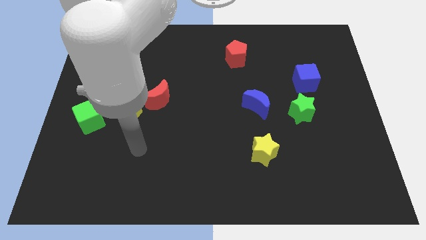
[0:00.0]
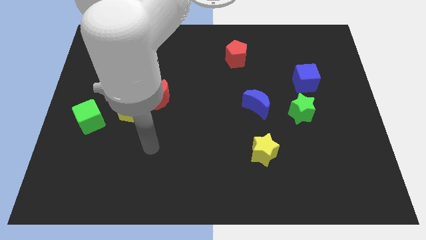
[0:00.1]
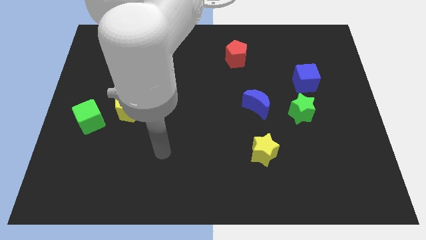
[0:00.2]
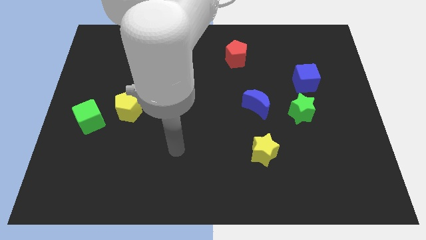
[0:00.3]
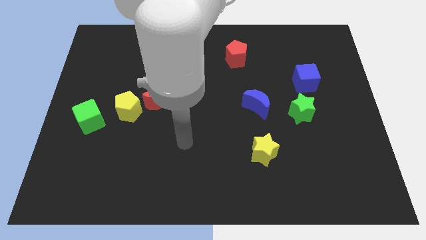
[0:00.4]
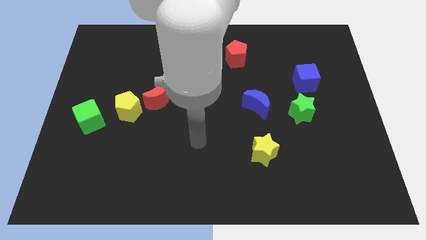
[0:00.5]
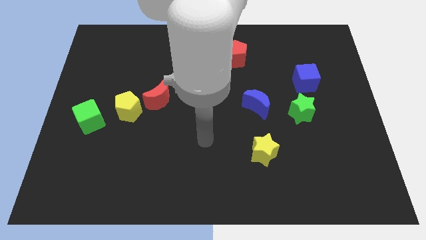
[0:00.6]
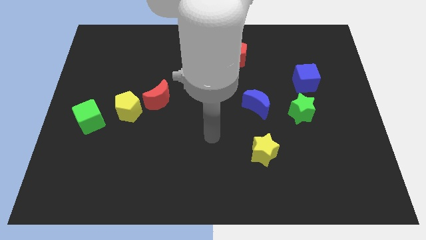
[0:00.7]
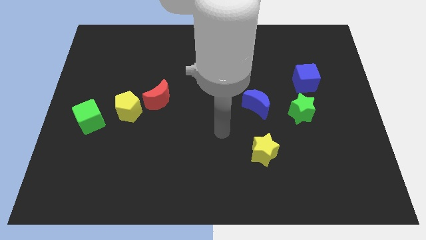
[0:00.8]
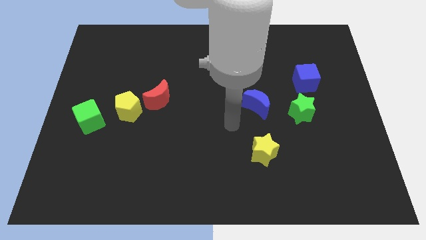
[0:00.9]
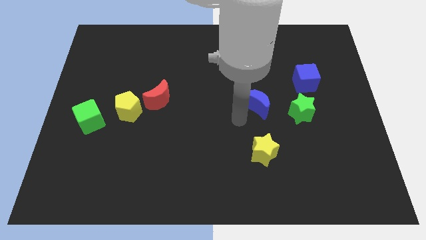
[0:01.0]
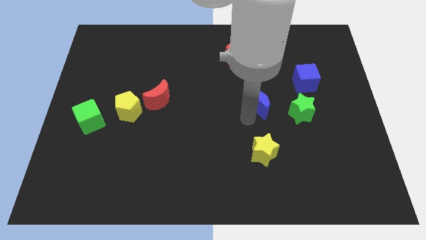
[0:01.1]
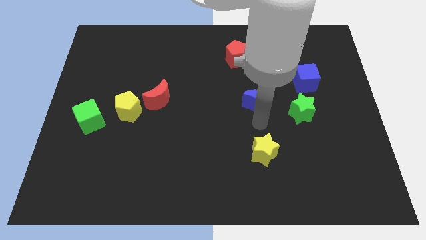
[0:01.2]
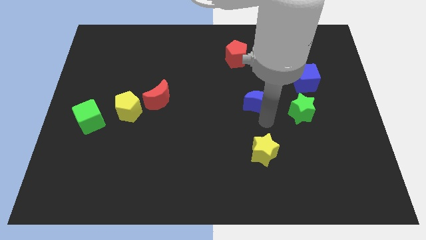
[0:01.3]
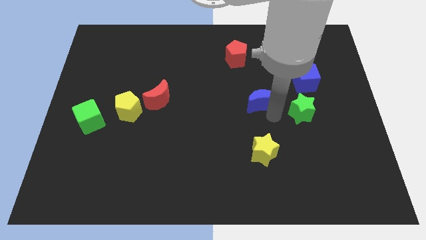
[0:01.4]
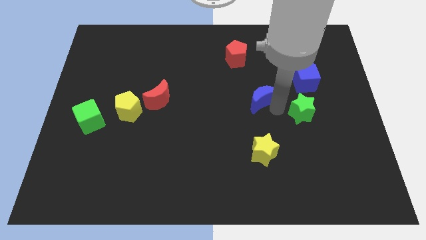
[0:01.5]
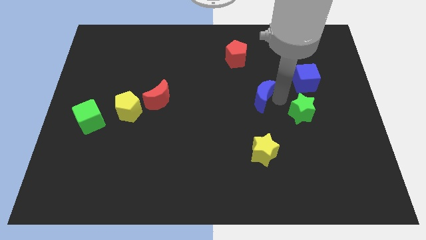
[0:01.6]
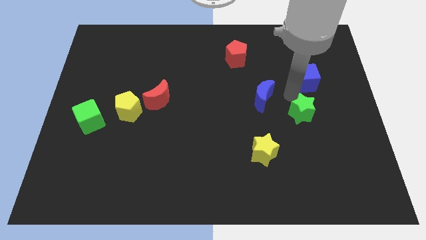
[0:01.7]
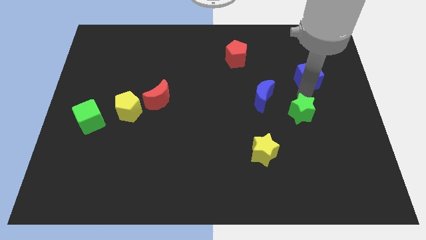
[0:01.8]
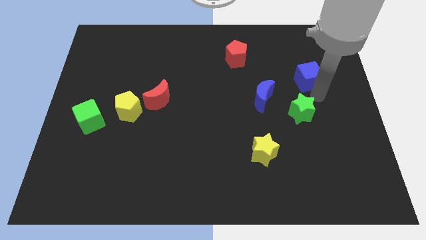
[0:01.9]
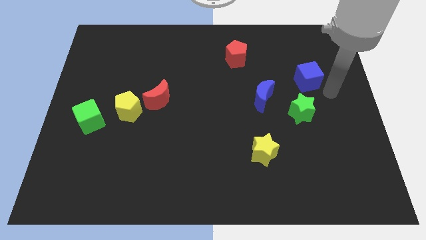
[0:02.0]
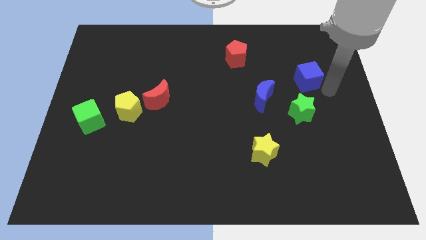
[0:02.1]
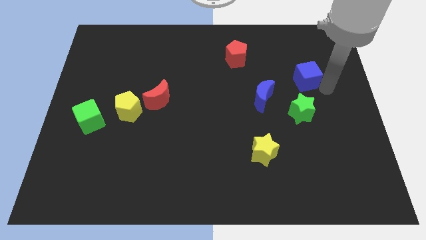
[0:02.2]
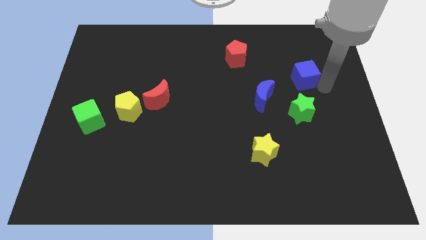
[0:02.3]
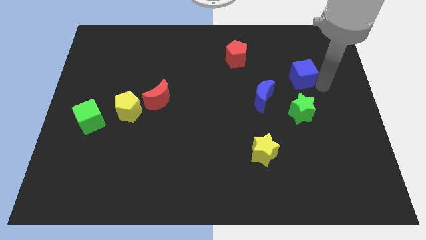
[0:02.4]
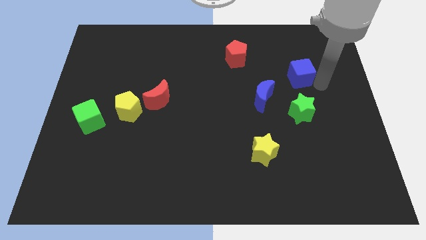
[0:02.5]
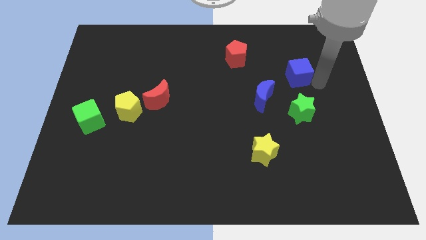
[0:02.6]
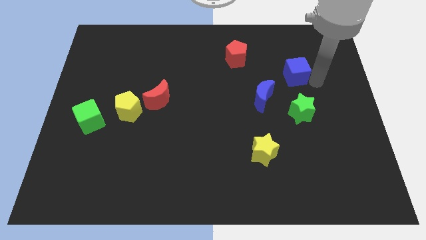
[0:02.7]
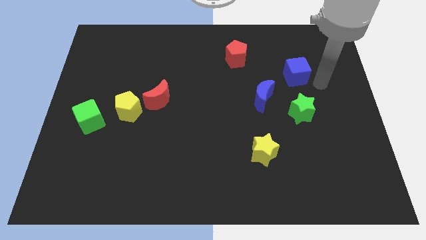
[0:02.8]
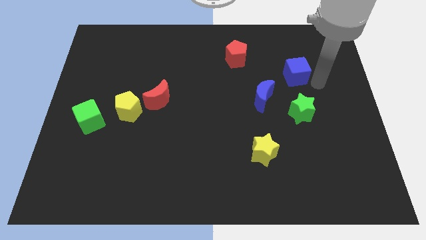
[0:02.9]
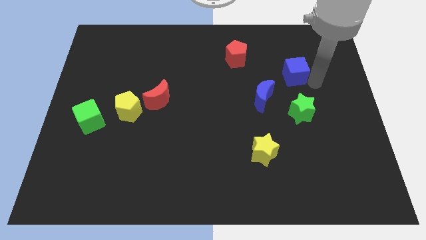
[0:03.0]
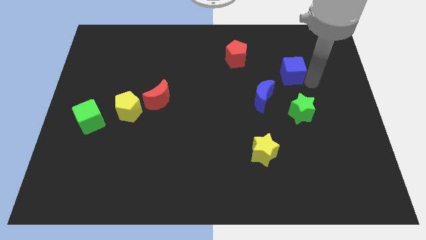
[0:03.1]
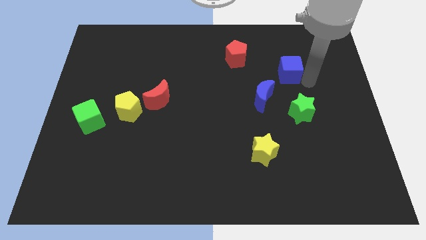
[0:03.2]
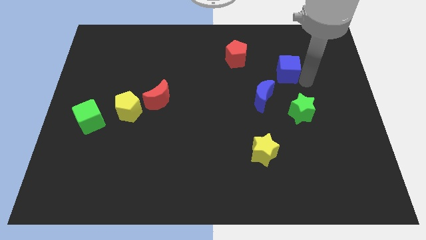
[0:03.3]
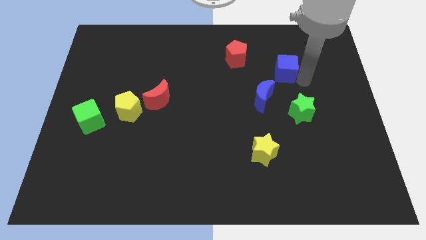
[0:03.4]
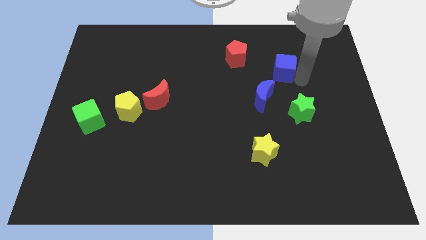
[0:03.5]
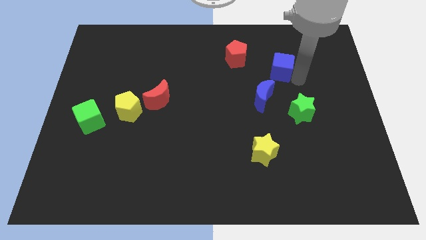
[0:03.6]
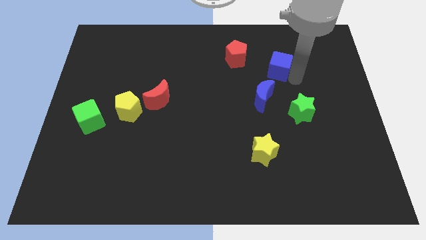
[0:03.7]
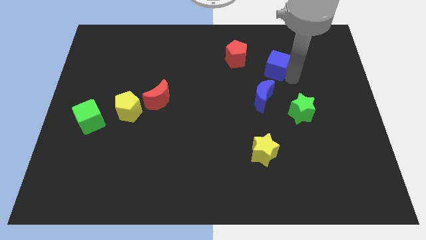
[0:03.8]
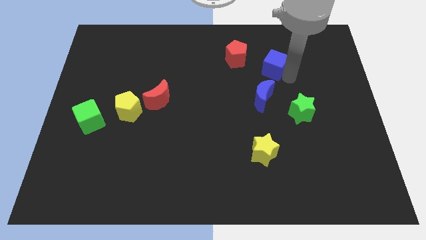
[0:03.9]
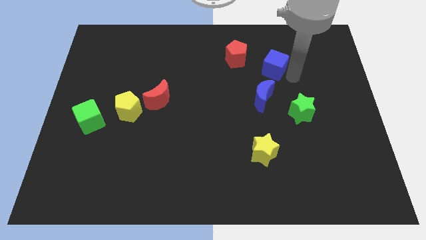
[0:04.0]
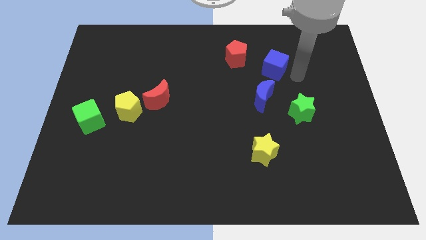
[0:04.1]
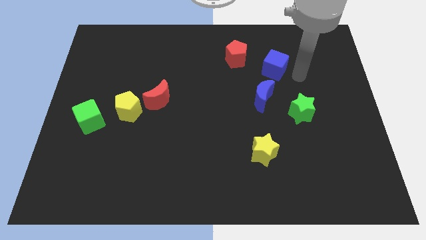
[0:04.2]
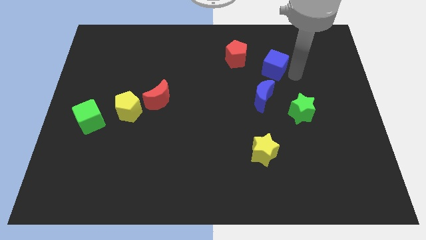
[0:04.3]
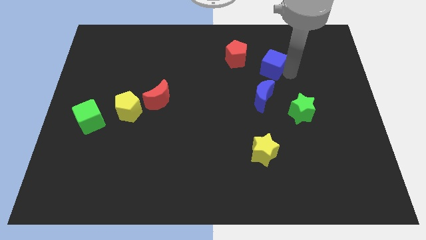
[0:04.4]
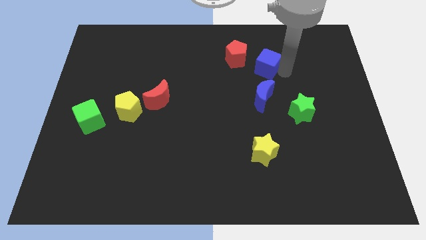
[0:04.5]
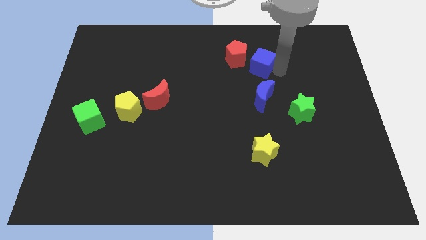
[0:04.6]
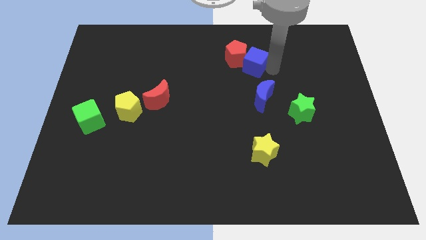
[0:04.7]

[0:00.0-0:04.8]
put the blue cube to the red pentagon

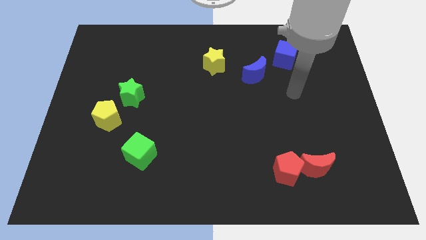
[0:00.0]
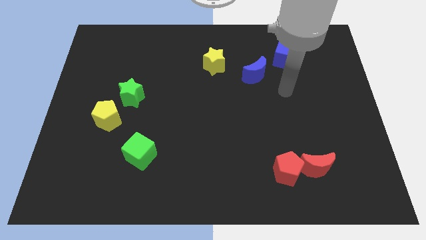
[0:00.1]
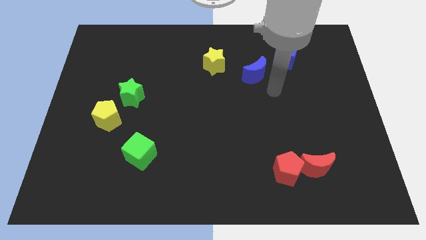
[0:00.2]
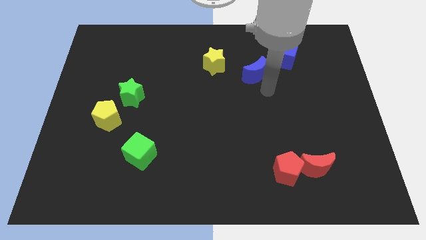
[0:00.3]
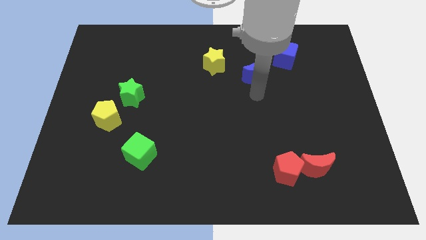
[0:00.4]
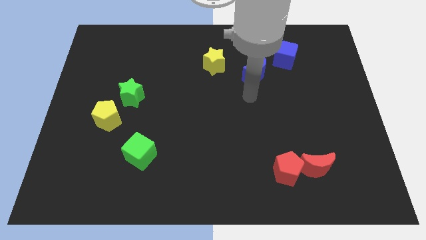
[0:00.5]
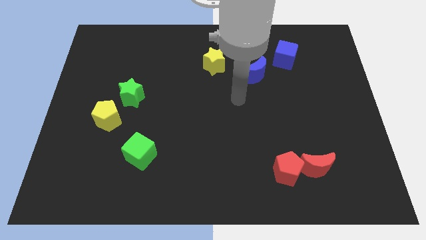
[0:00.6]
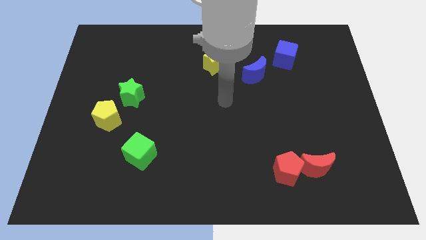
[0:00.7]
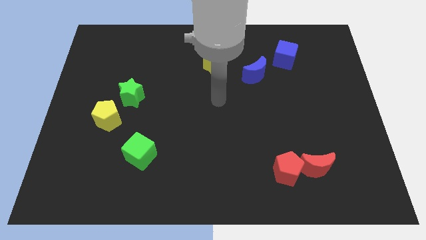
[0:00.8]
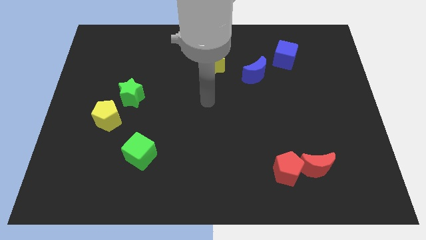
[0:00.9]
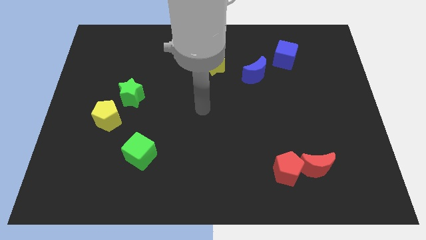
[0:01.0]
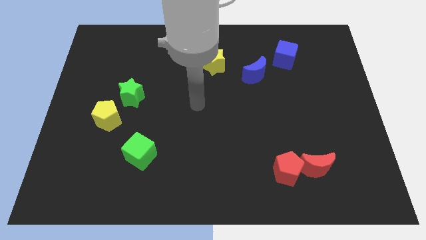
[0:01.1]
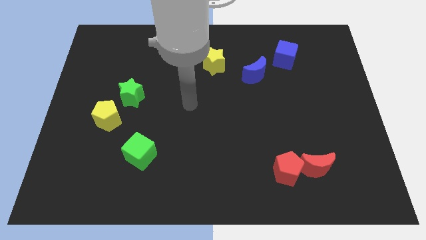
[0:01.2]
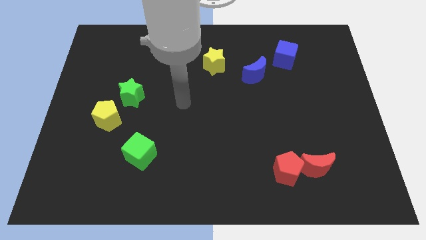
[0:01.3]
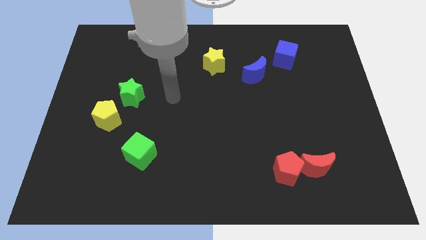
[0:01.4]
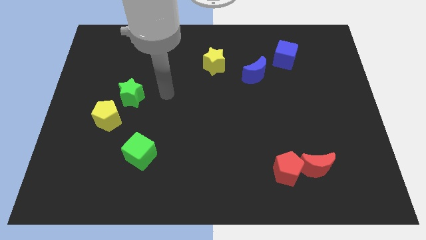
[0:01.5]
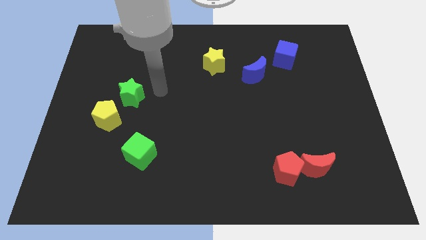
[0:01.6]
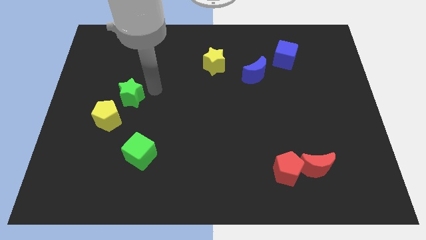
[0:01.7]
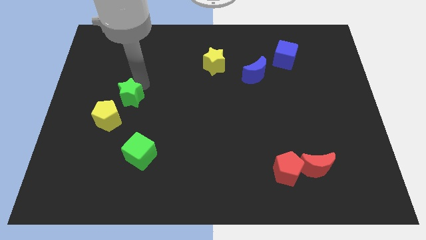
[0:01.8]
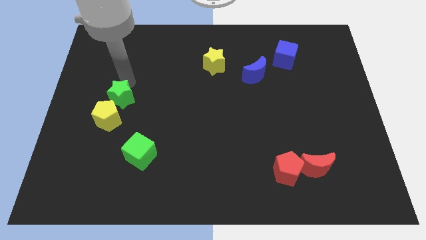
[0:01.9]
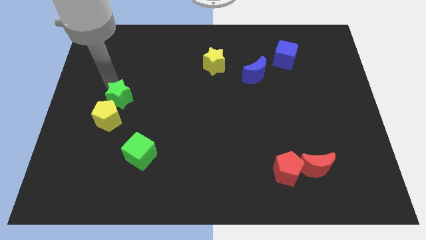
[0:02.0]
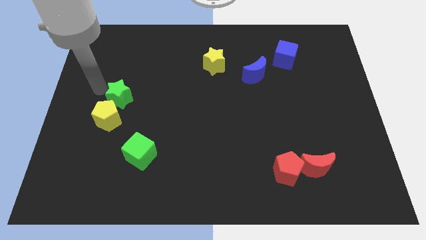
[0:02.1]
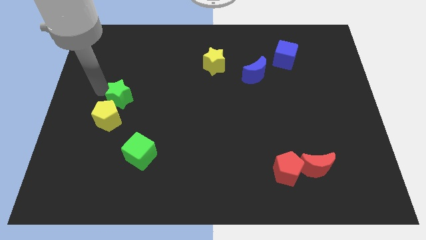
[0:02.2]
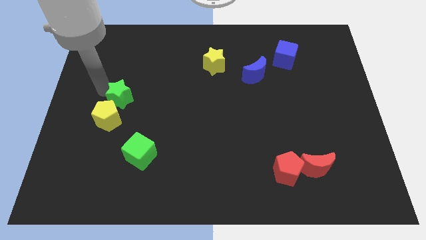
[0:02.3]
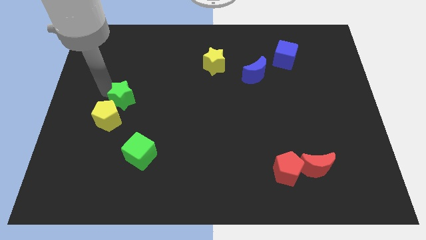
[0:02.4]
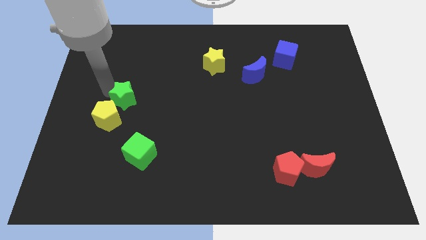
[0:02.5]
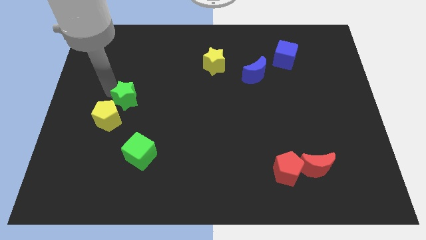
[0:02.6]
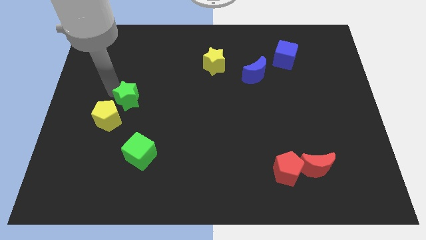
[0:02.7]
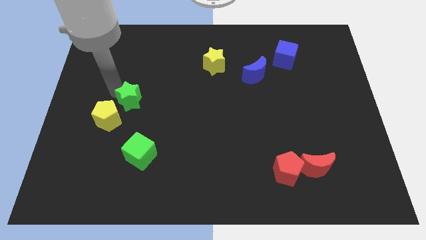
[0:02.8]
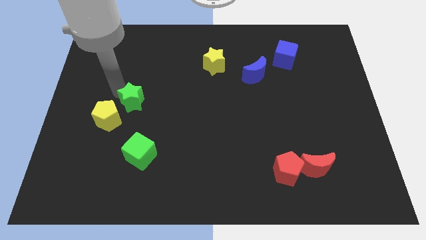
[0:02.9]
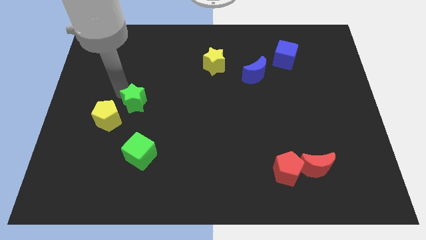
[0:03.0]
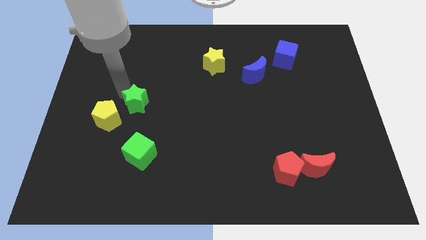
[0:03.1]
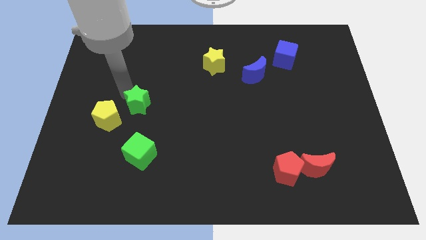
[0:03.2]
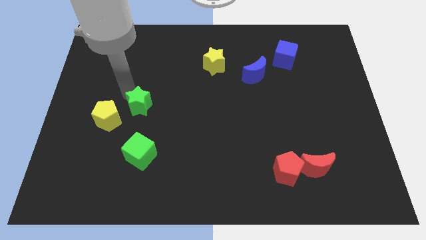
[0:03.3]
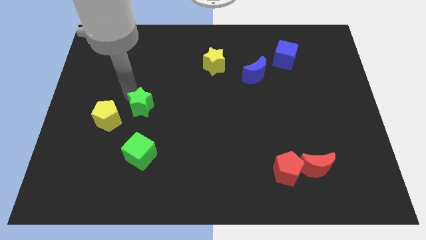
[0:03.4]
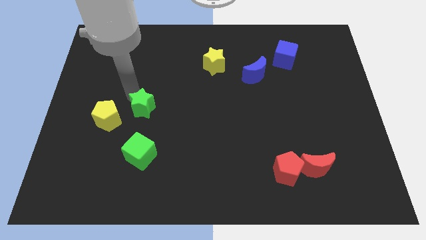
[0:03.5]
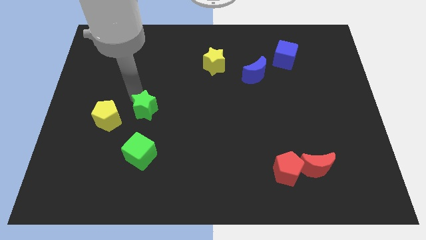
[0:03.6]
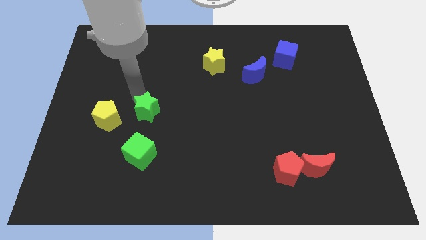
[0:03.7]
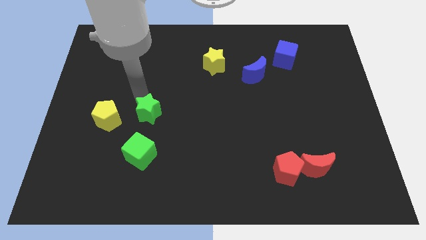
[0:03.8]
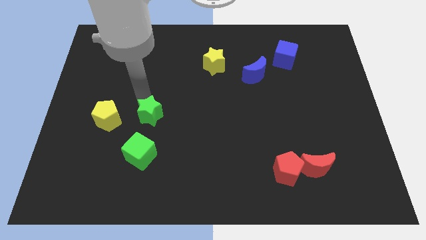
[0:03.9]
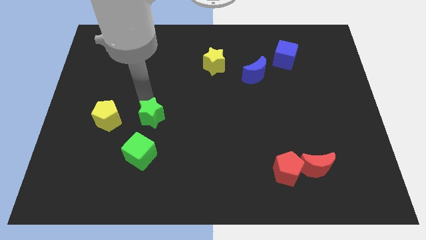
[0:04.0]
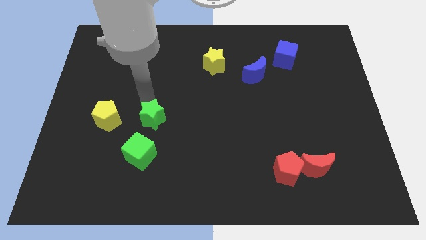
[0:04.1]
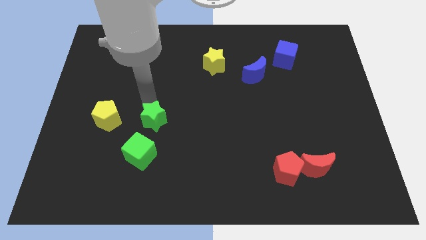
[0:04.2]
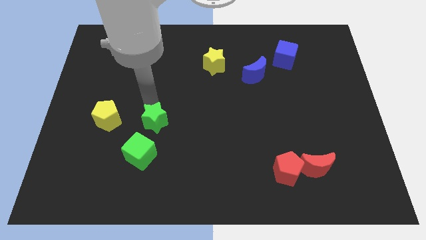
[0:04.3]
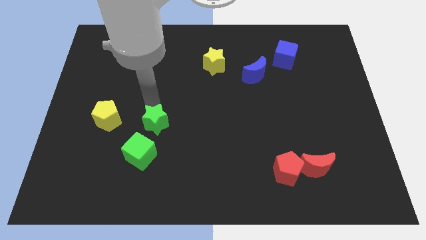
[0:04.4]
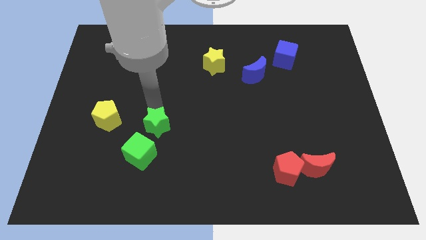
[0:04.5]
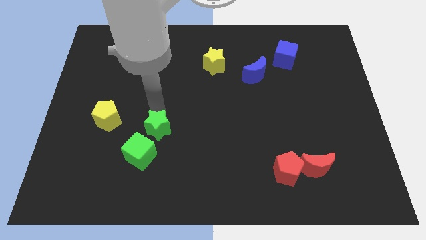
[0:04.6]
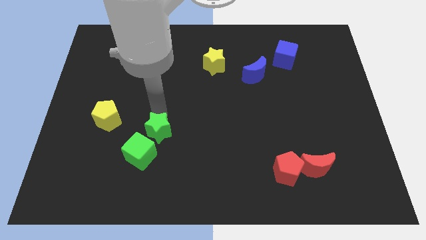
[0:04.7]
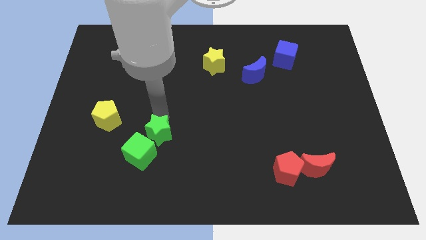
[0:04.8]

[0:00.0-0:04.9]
push the green star to the green cube
